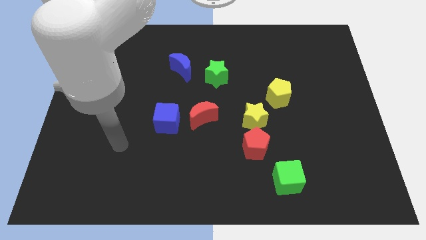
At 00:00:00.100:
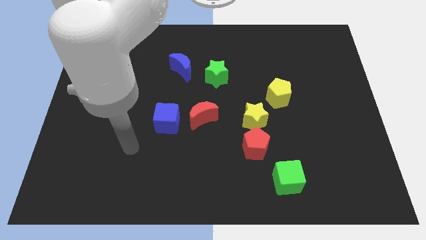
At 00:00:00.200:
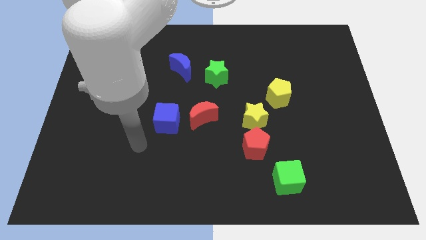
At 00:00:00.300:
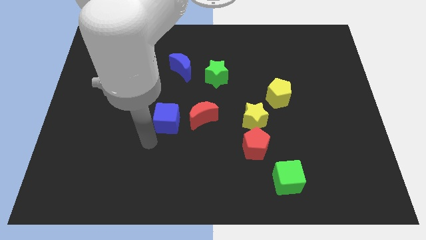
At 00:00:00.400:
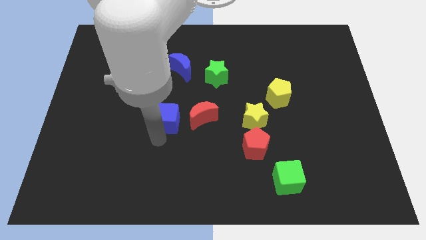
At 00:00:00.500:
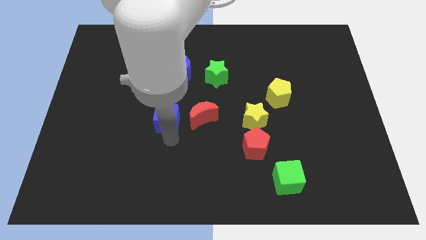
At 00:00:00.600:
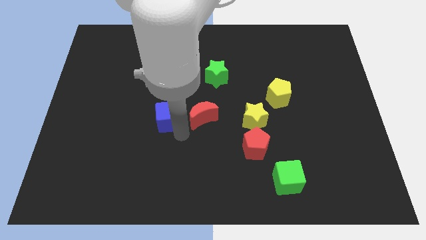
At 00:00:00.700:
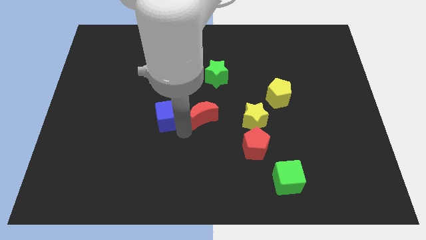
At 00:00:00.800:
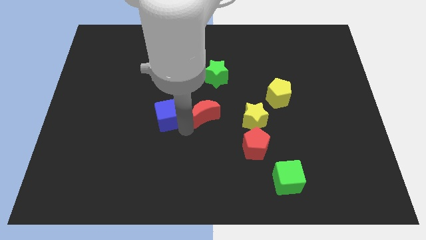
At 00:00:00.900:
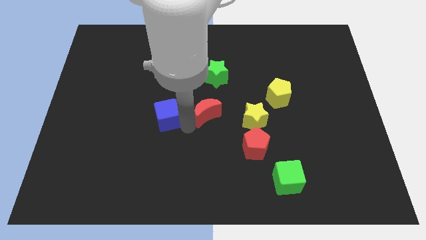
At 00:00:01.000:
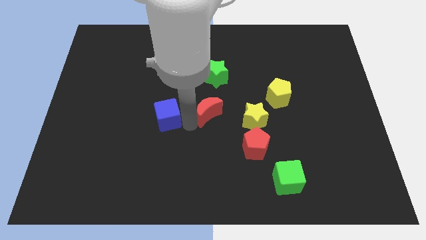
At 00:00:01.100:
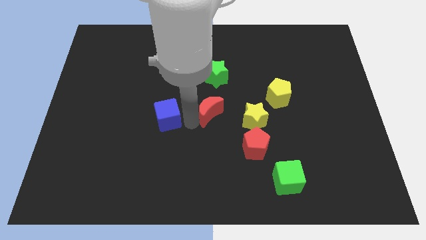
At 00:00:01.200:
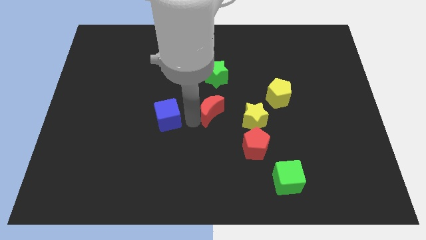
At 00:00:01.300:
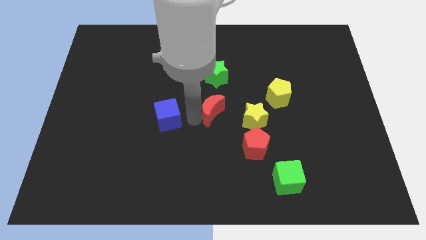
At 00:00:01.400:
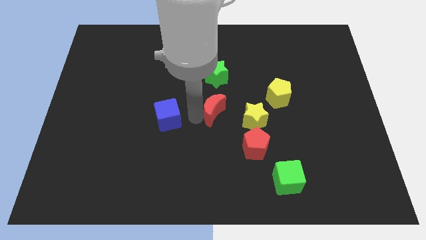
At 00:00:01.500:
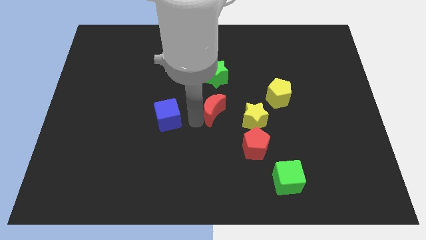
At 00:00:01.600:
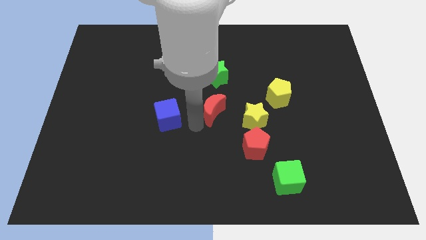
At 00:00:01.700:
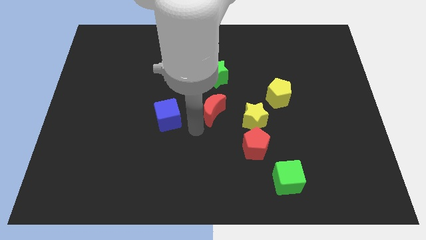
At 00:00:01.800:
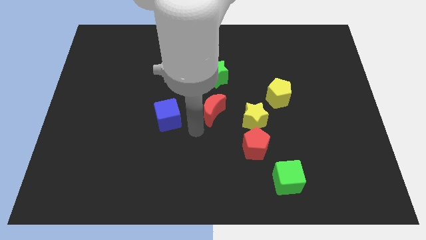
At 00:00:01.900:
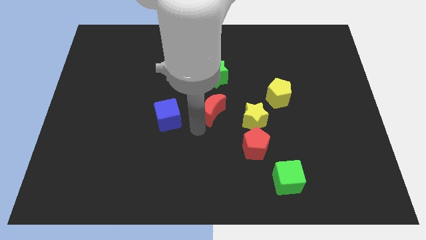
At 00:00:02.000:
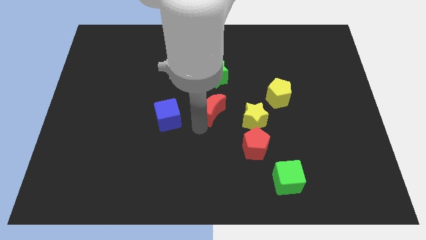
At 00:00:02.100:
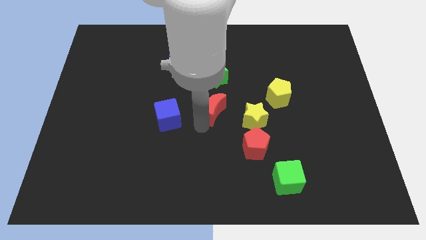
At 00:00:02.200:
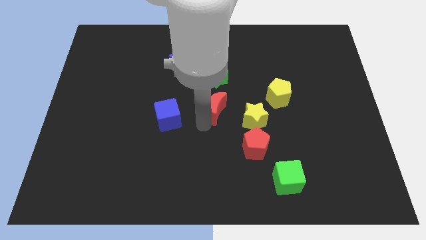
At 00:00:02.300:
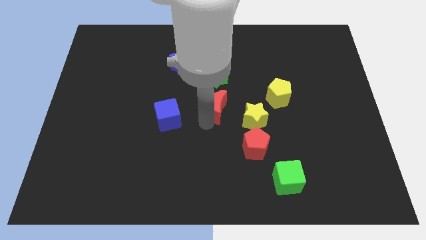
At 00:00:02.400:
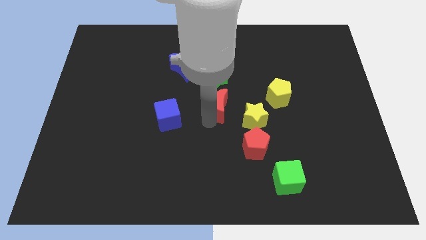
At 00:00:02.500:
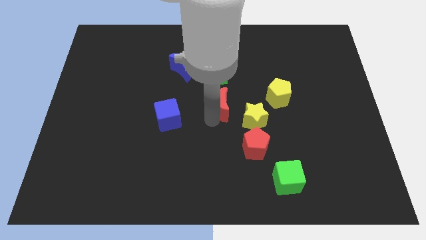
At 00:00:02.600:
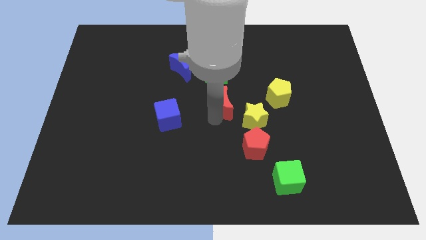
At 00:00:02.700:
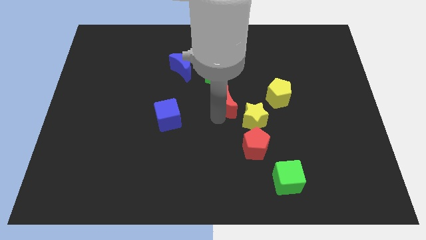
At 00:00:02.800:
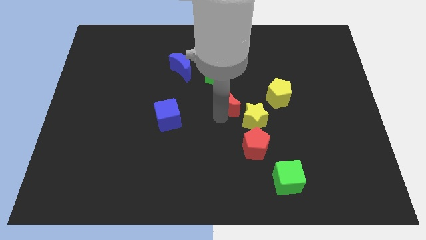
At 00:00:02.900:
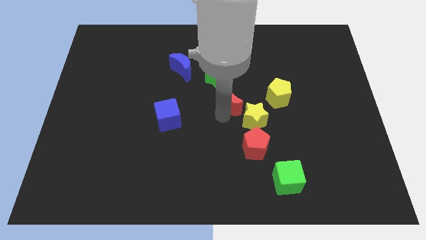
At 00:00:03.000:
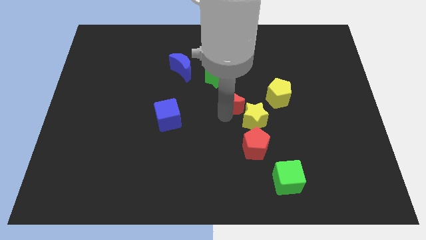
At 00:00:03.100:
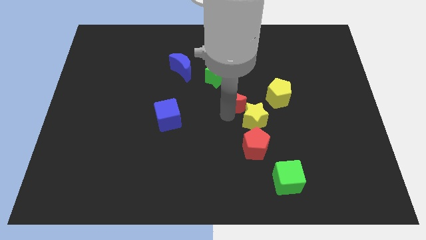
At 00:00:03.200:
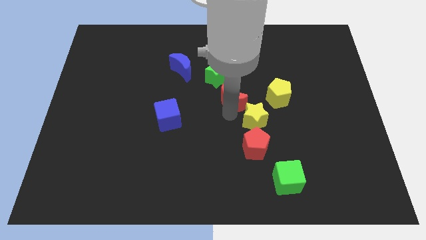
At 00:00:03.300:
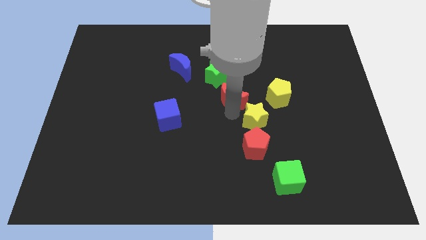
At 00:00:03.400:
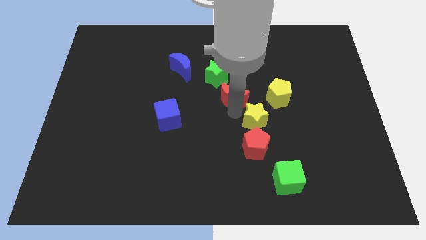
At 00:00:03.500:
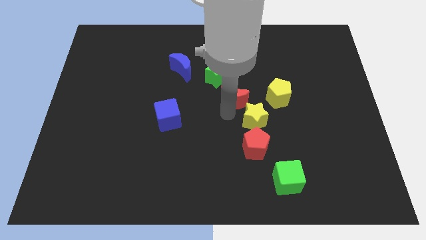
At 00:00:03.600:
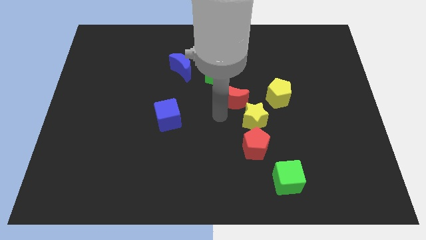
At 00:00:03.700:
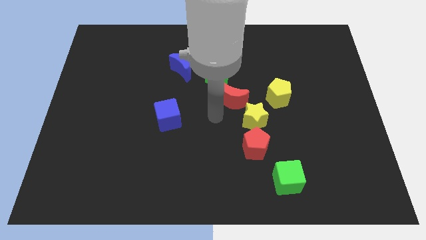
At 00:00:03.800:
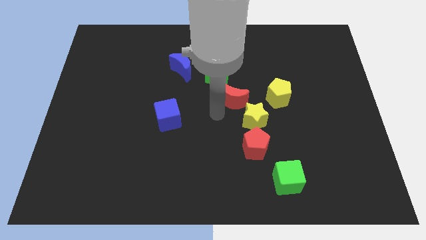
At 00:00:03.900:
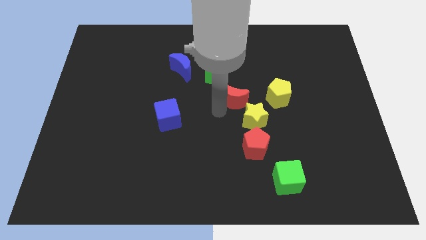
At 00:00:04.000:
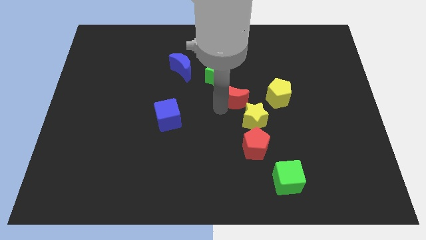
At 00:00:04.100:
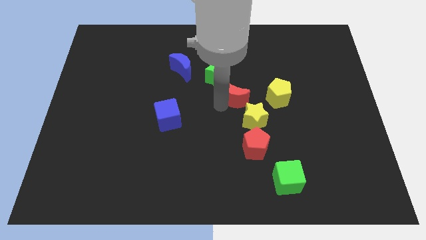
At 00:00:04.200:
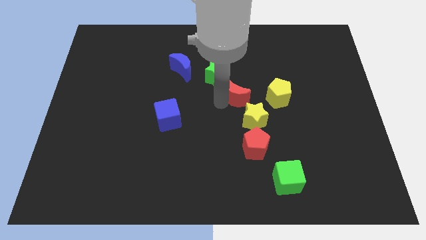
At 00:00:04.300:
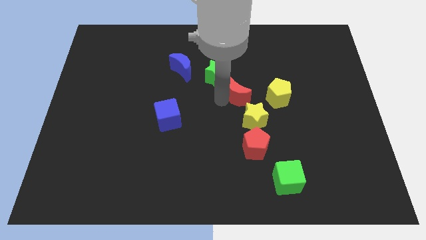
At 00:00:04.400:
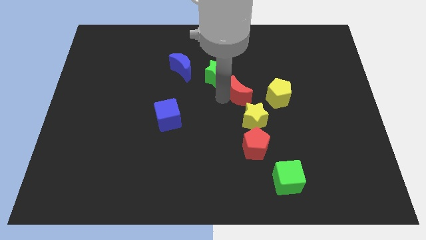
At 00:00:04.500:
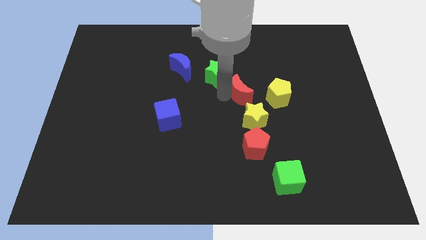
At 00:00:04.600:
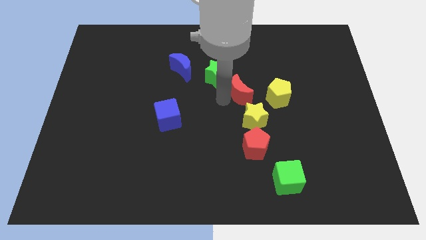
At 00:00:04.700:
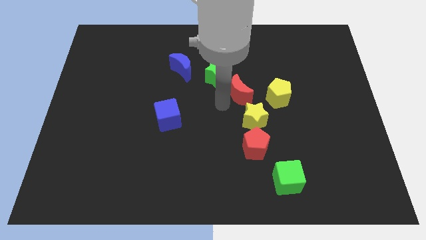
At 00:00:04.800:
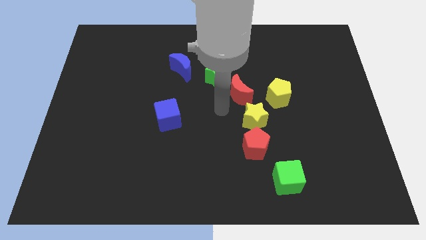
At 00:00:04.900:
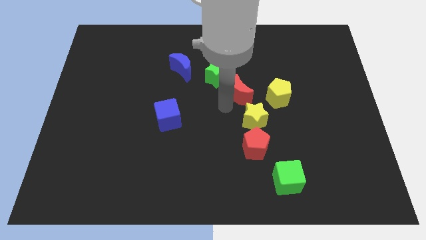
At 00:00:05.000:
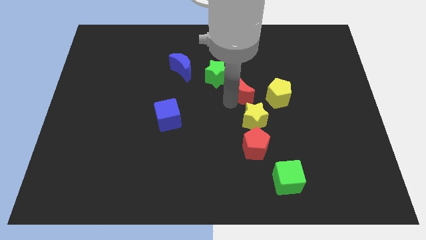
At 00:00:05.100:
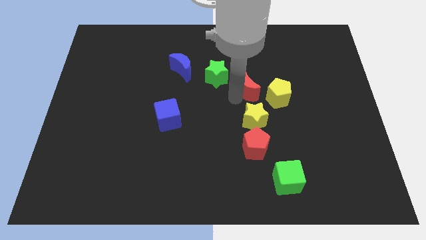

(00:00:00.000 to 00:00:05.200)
move the red moon just right of the green star

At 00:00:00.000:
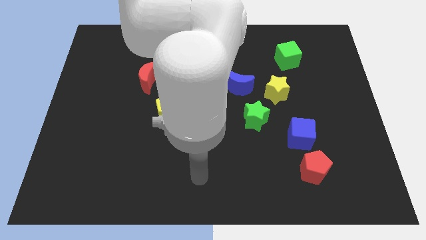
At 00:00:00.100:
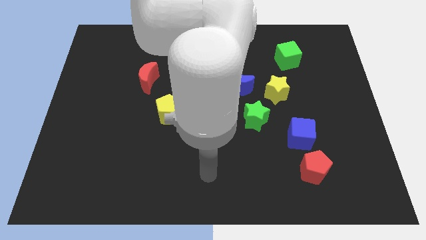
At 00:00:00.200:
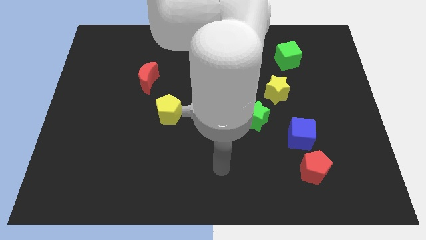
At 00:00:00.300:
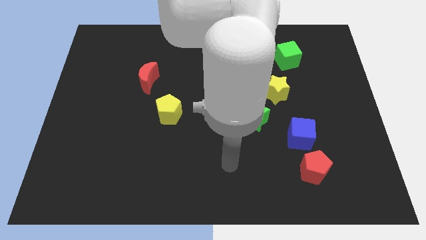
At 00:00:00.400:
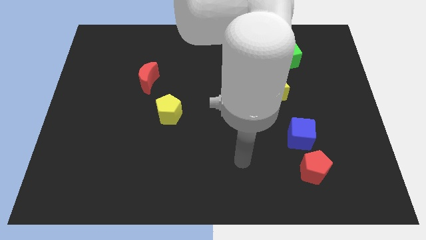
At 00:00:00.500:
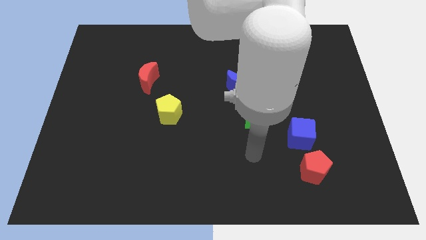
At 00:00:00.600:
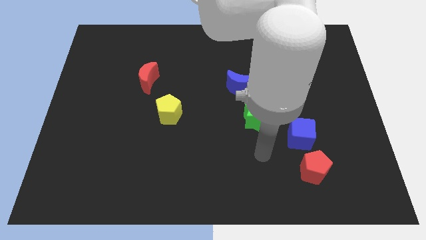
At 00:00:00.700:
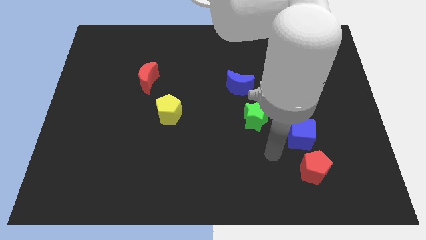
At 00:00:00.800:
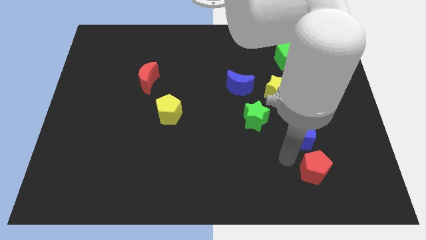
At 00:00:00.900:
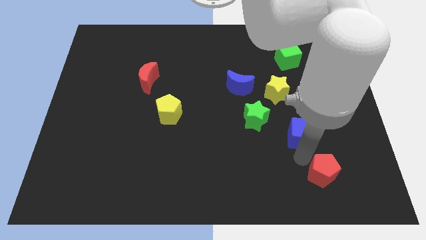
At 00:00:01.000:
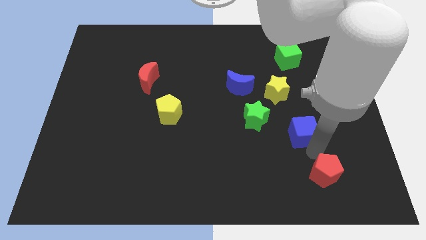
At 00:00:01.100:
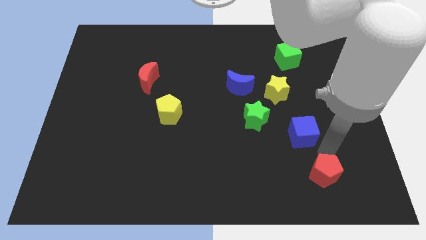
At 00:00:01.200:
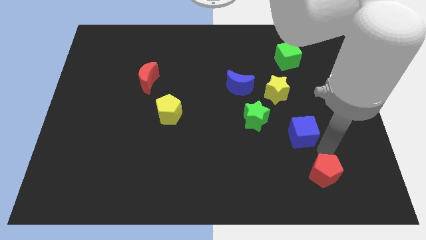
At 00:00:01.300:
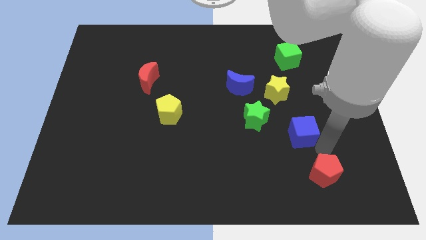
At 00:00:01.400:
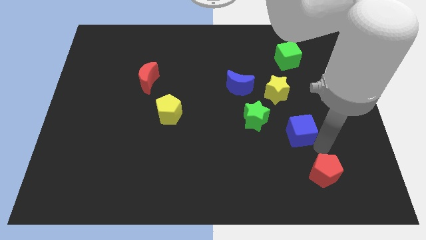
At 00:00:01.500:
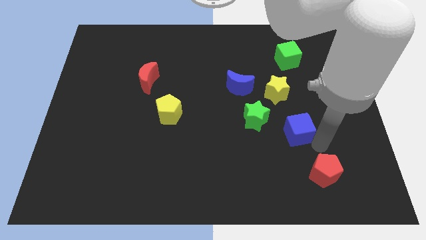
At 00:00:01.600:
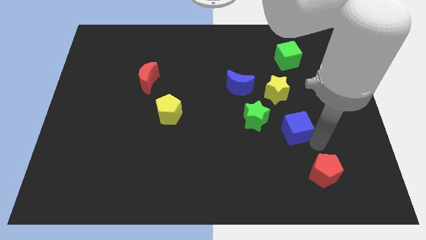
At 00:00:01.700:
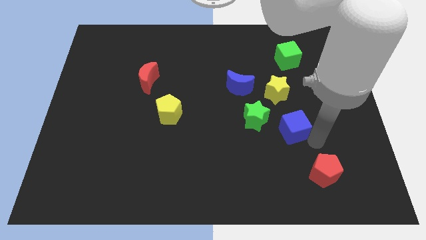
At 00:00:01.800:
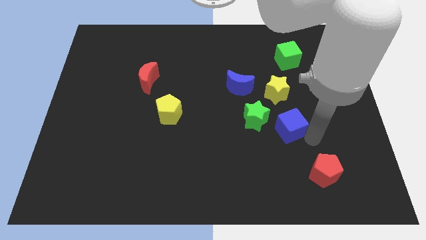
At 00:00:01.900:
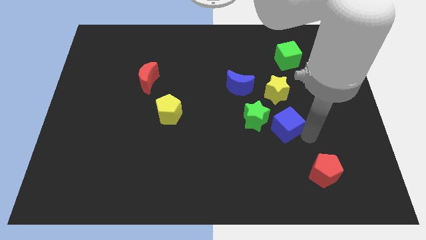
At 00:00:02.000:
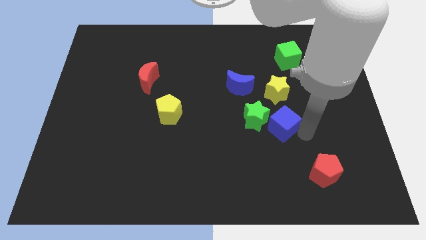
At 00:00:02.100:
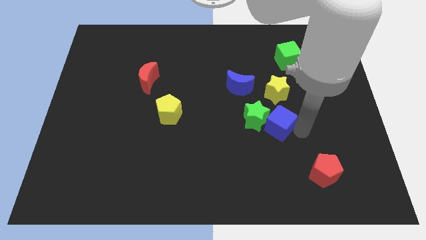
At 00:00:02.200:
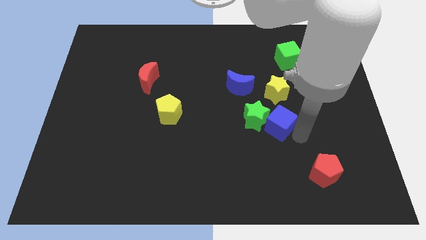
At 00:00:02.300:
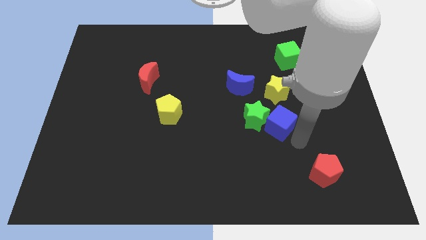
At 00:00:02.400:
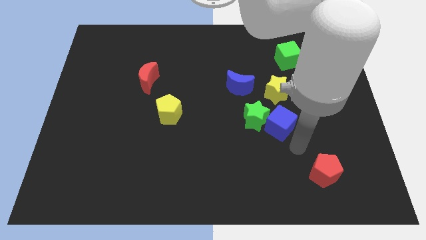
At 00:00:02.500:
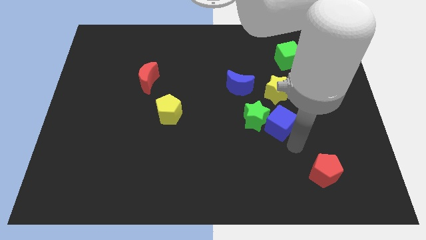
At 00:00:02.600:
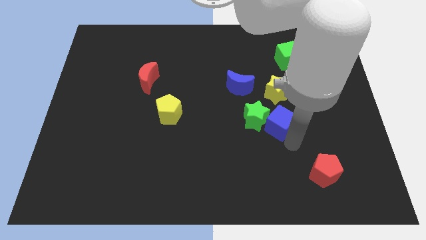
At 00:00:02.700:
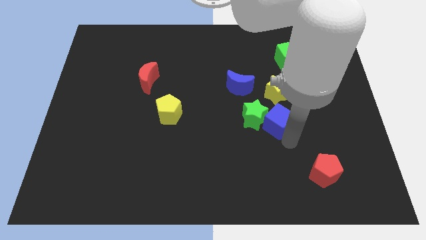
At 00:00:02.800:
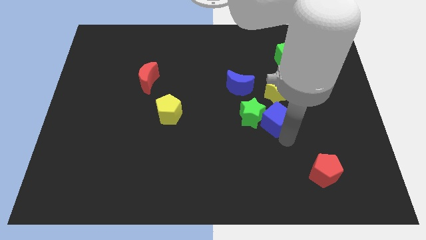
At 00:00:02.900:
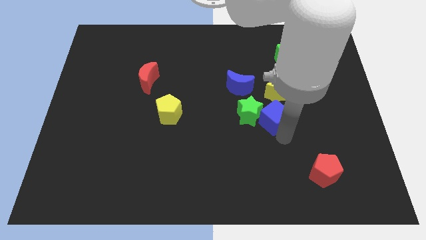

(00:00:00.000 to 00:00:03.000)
push the blue cube to the bottom right of the blue moon
